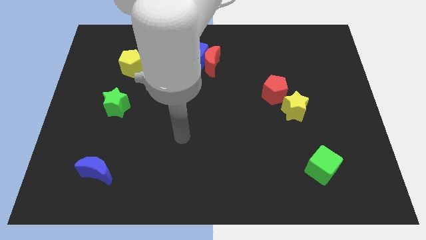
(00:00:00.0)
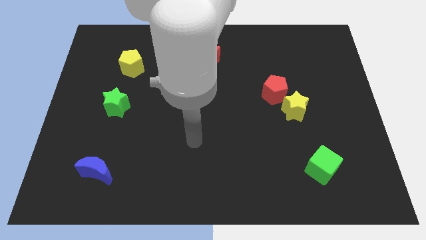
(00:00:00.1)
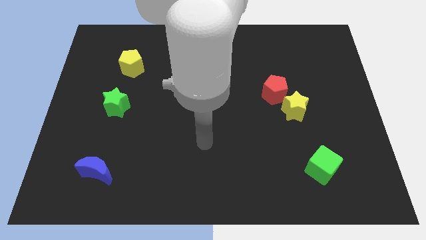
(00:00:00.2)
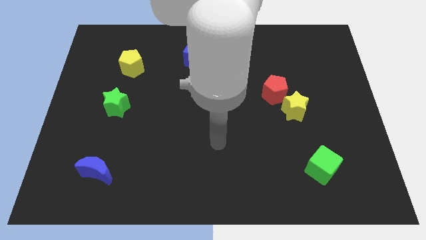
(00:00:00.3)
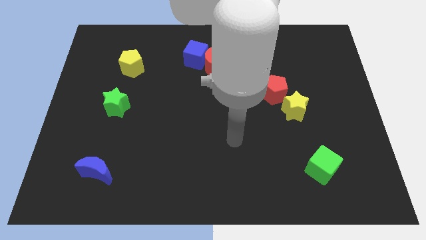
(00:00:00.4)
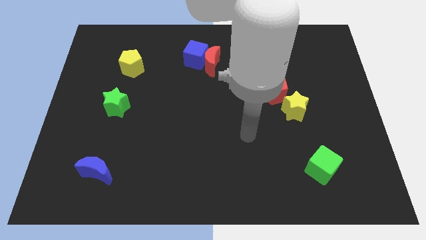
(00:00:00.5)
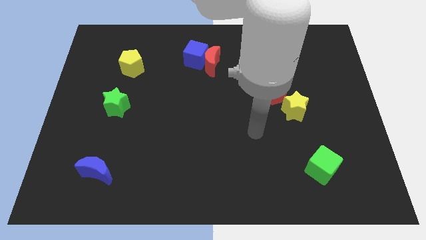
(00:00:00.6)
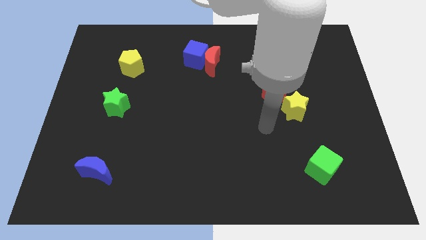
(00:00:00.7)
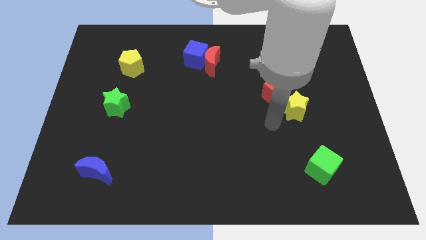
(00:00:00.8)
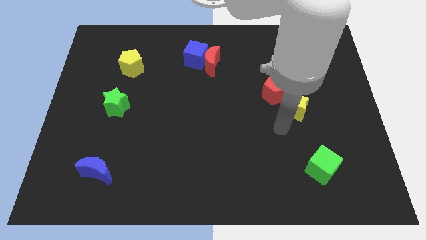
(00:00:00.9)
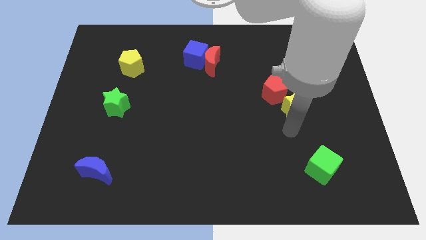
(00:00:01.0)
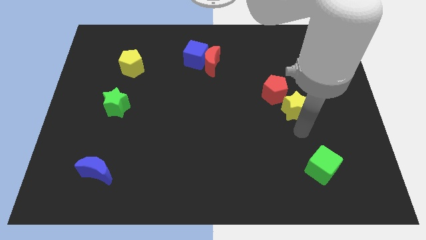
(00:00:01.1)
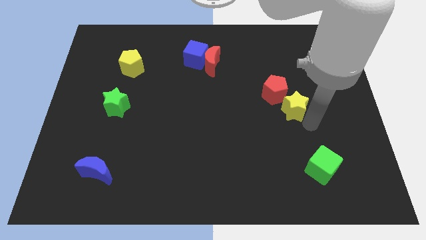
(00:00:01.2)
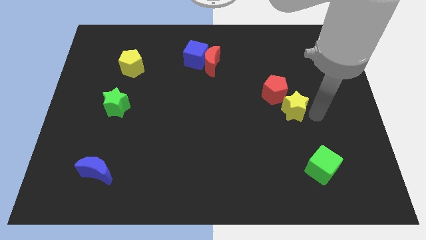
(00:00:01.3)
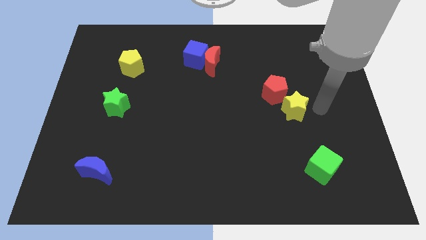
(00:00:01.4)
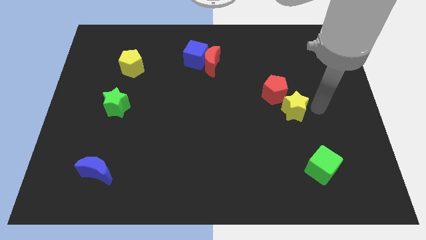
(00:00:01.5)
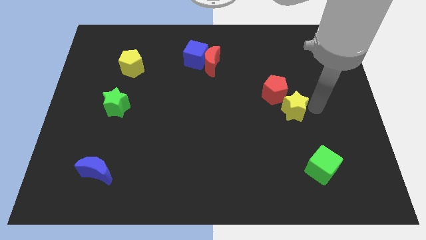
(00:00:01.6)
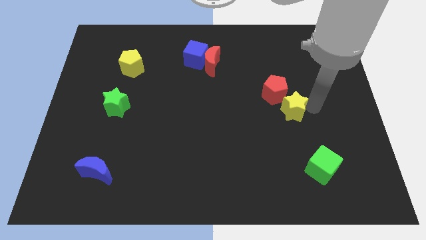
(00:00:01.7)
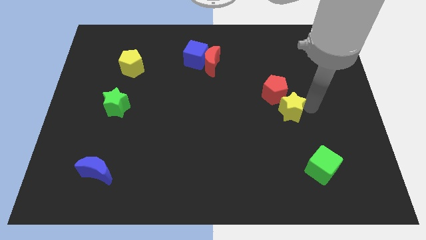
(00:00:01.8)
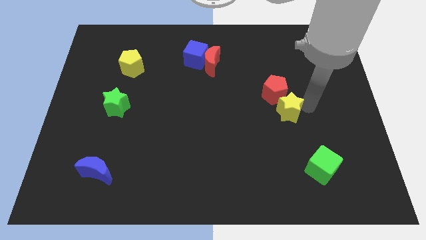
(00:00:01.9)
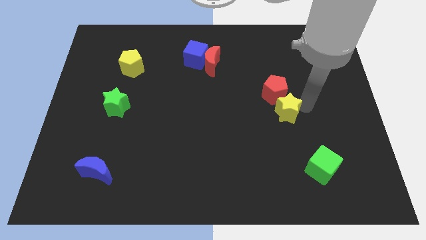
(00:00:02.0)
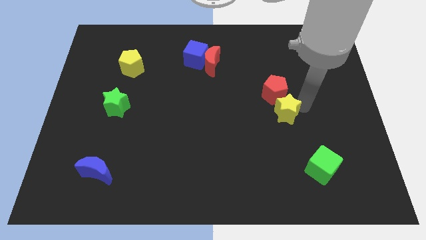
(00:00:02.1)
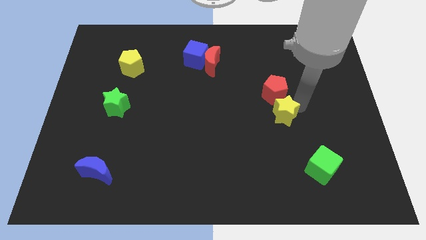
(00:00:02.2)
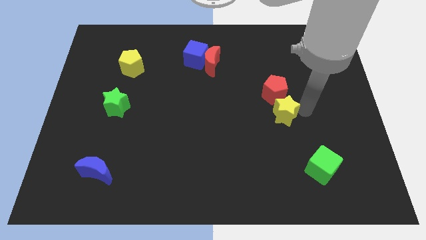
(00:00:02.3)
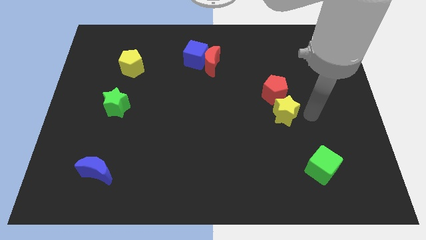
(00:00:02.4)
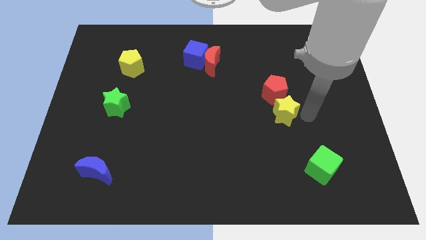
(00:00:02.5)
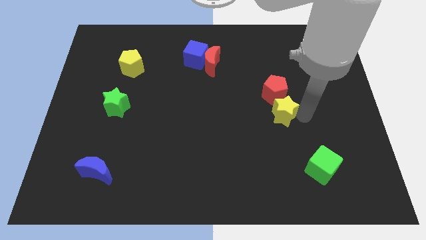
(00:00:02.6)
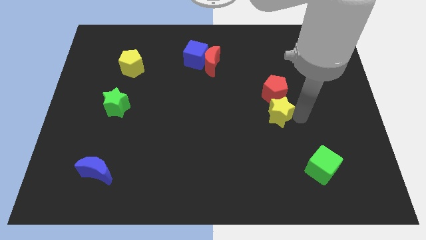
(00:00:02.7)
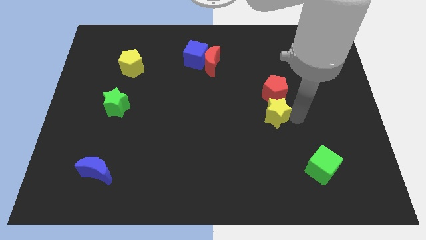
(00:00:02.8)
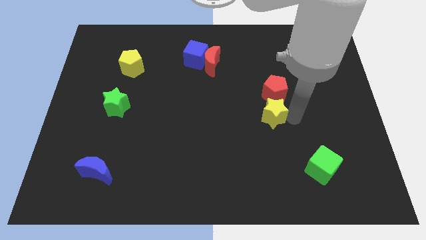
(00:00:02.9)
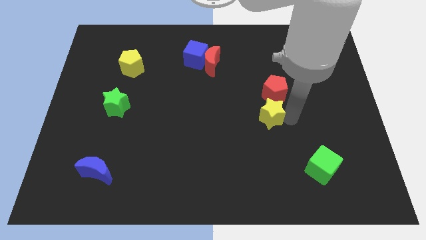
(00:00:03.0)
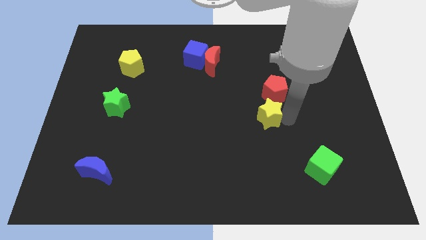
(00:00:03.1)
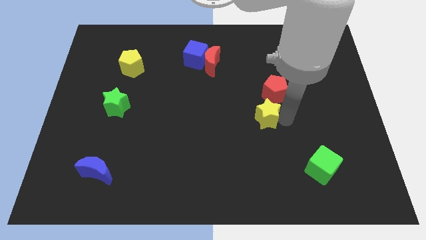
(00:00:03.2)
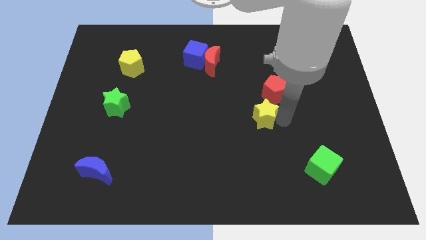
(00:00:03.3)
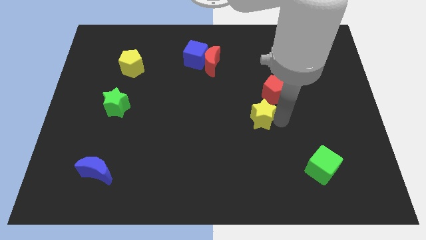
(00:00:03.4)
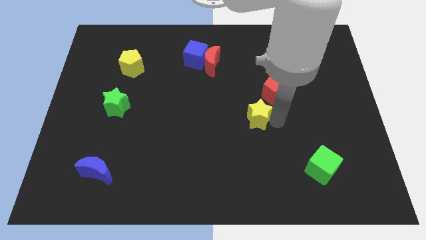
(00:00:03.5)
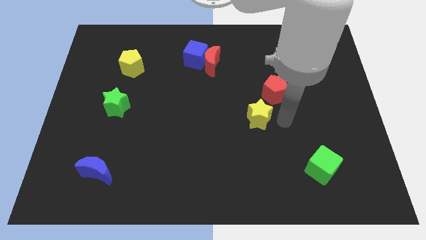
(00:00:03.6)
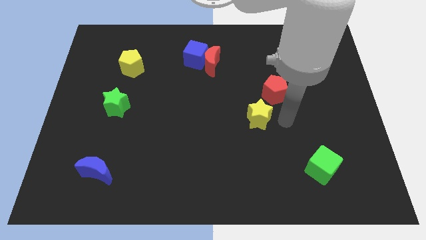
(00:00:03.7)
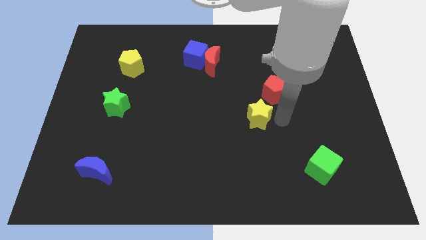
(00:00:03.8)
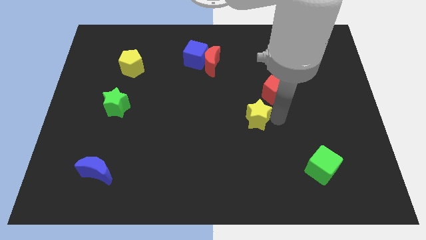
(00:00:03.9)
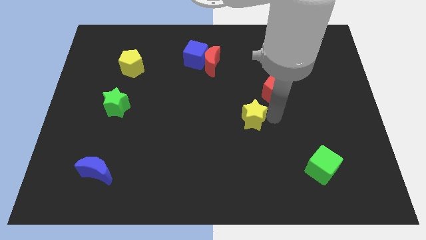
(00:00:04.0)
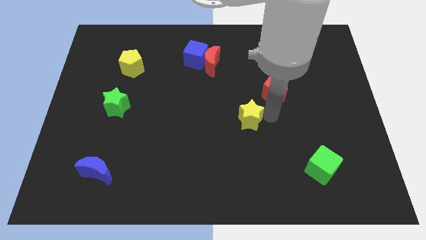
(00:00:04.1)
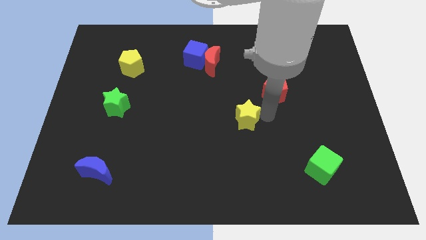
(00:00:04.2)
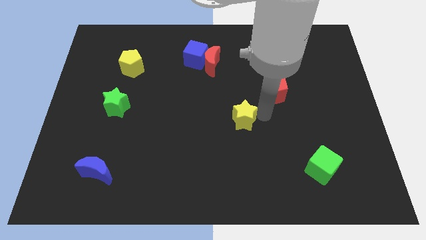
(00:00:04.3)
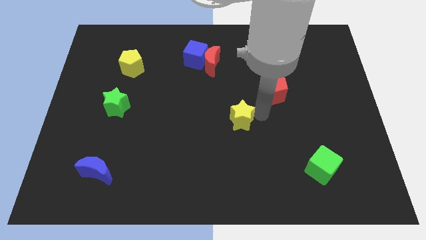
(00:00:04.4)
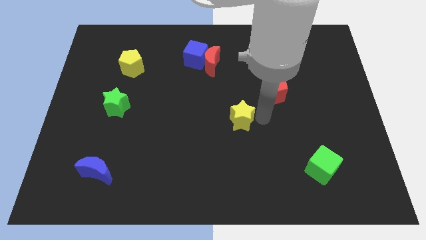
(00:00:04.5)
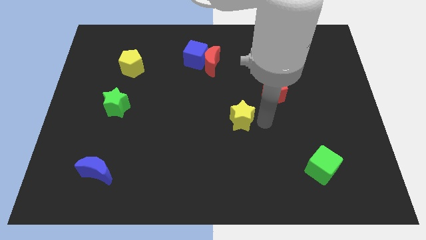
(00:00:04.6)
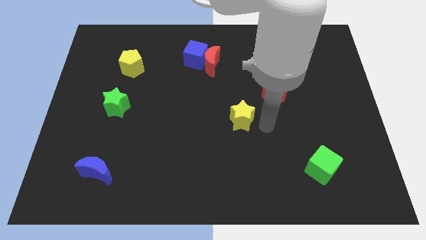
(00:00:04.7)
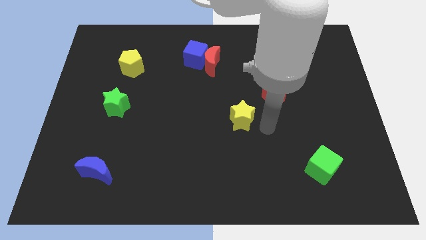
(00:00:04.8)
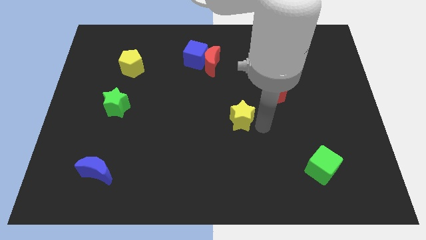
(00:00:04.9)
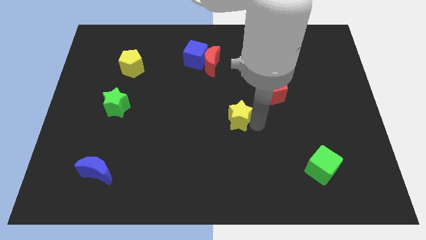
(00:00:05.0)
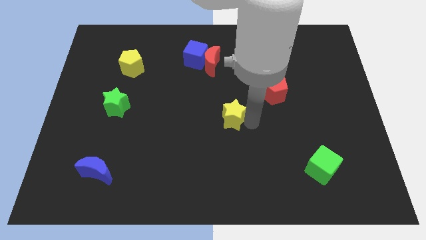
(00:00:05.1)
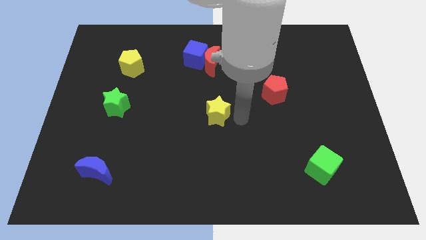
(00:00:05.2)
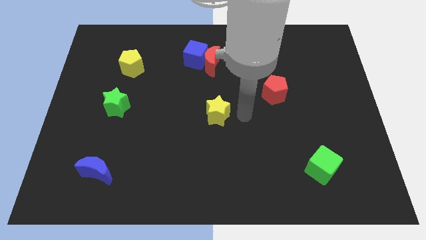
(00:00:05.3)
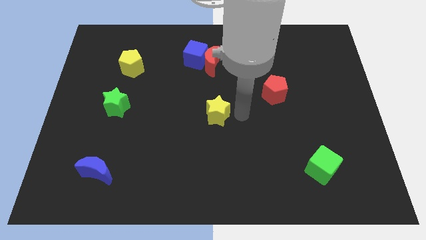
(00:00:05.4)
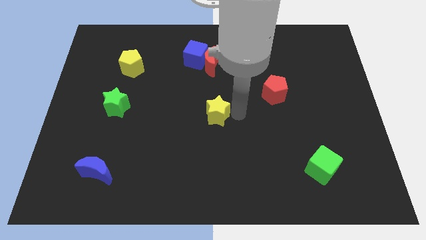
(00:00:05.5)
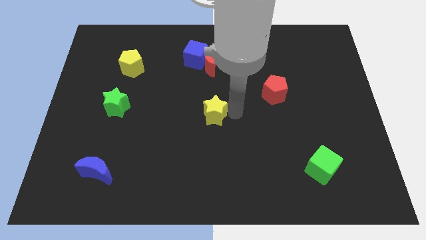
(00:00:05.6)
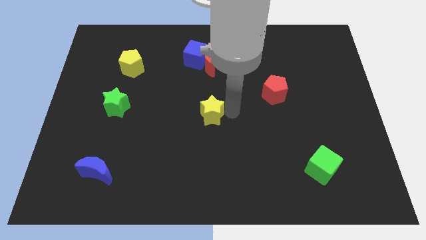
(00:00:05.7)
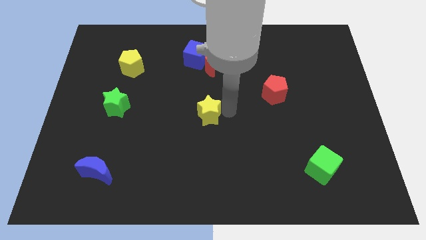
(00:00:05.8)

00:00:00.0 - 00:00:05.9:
move the yellow star left

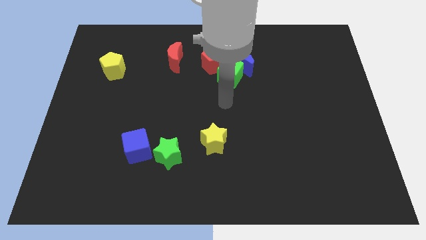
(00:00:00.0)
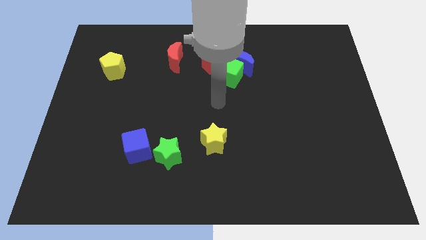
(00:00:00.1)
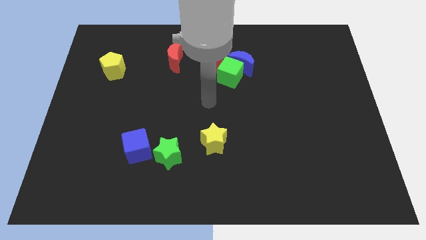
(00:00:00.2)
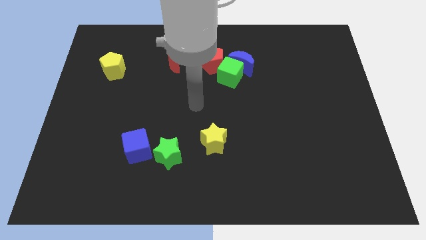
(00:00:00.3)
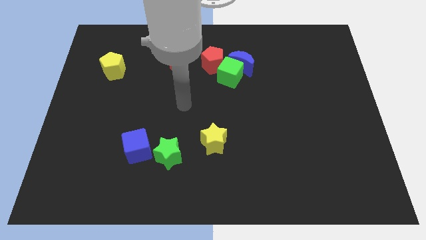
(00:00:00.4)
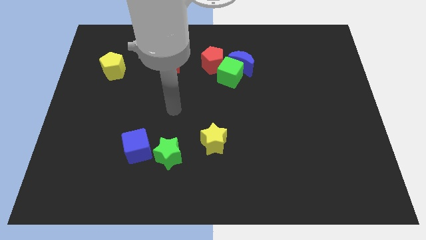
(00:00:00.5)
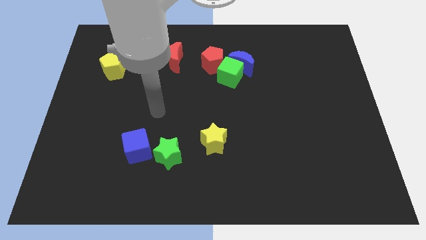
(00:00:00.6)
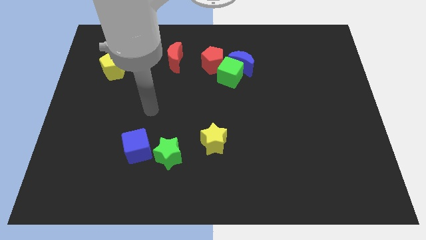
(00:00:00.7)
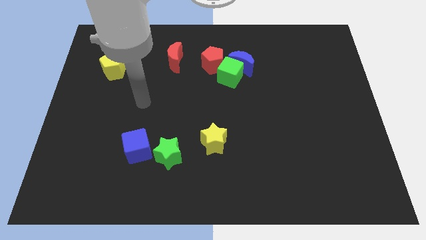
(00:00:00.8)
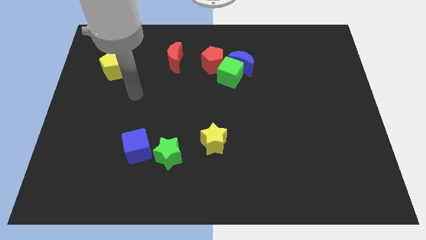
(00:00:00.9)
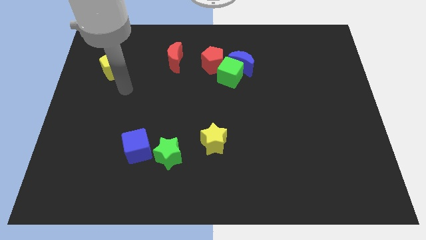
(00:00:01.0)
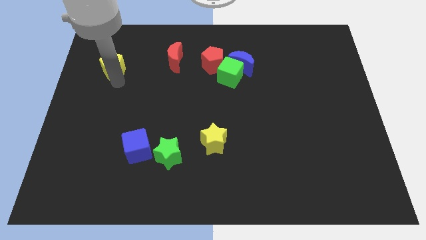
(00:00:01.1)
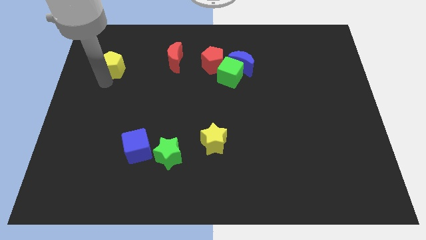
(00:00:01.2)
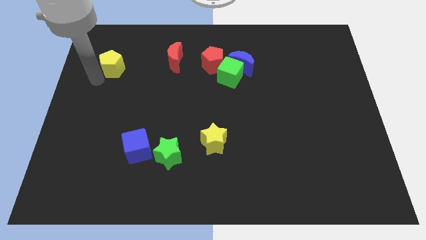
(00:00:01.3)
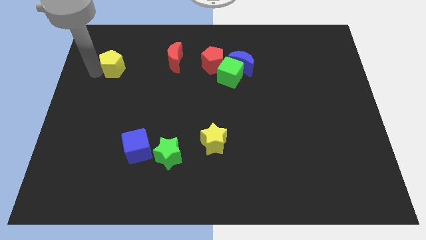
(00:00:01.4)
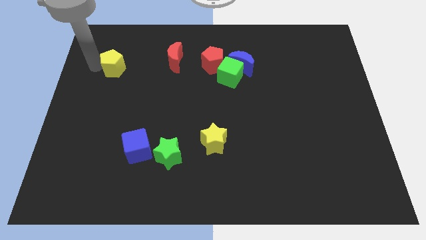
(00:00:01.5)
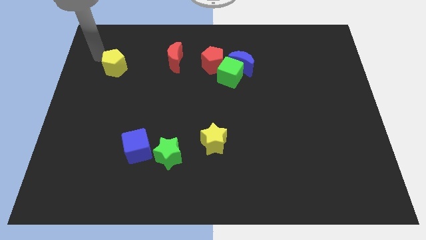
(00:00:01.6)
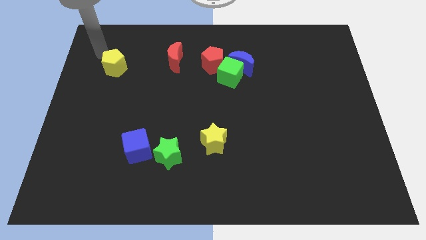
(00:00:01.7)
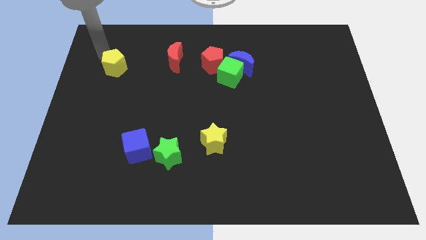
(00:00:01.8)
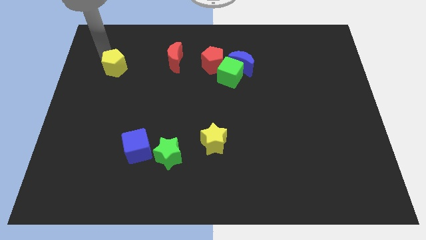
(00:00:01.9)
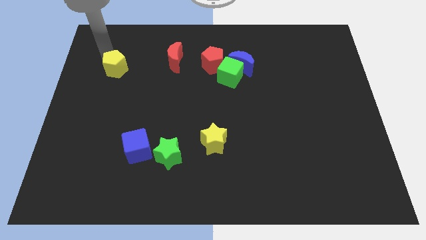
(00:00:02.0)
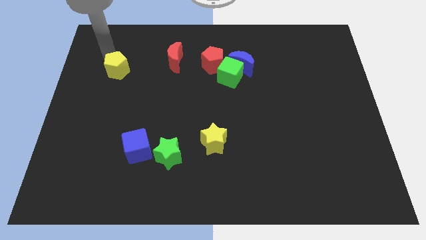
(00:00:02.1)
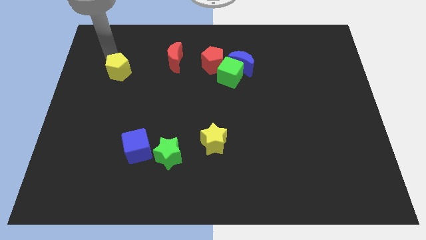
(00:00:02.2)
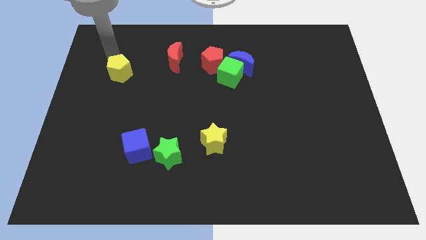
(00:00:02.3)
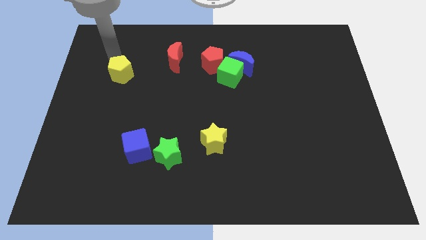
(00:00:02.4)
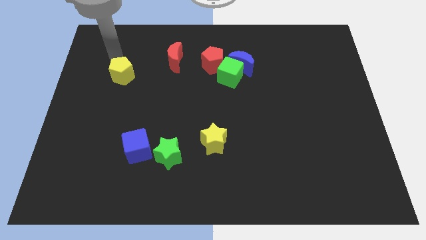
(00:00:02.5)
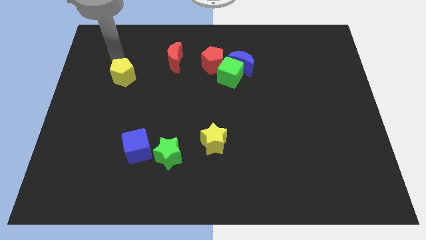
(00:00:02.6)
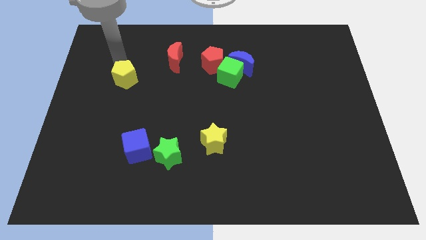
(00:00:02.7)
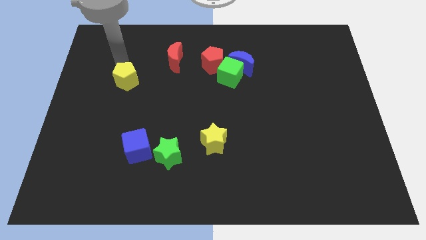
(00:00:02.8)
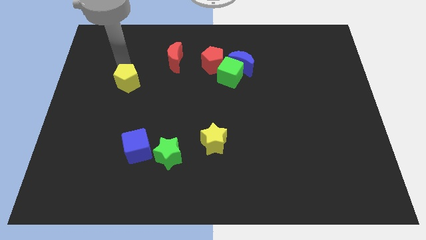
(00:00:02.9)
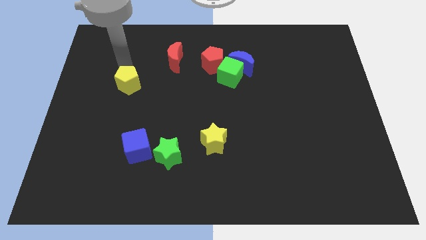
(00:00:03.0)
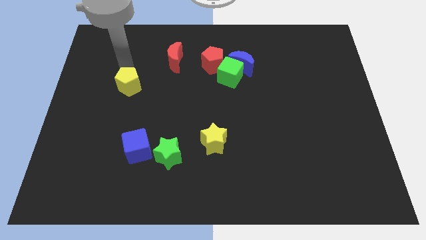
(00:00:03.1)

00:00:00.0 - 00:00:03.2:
slightly slide the yellow pentagon down and right diagonally
